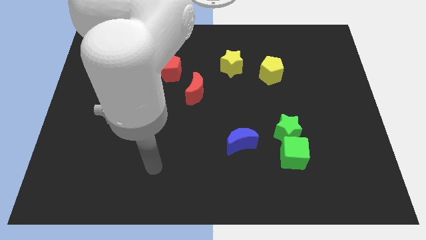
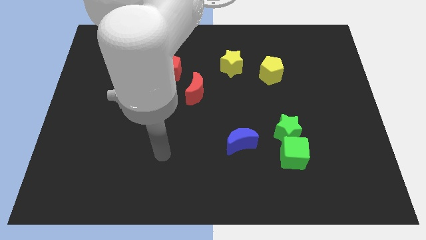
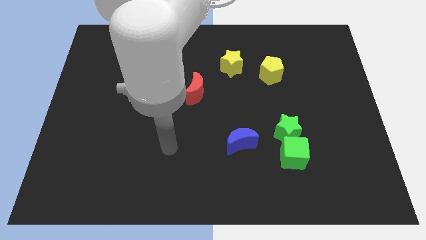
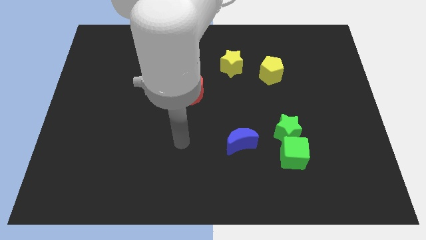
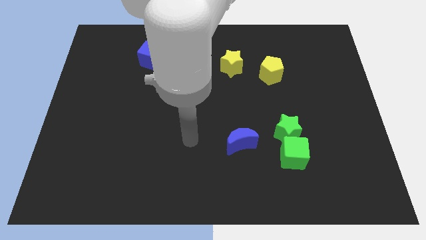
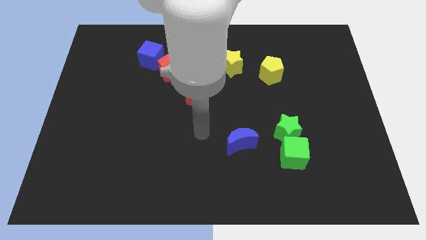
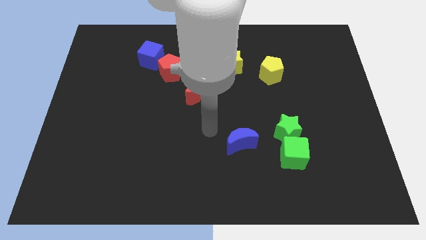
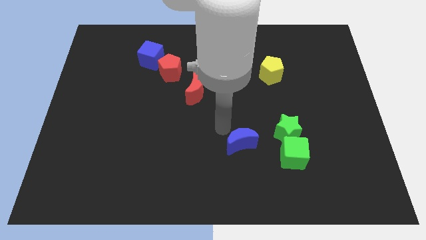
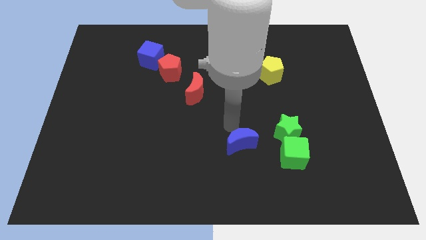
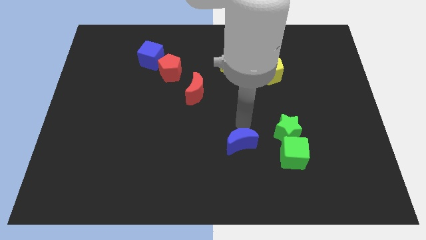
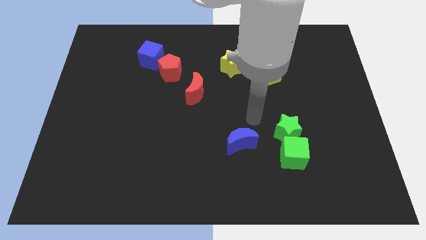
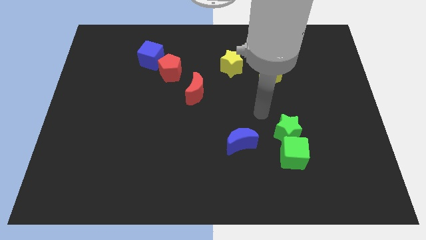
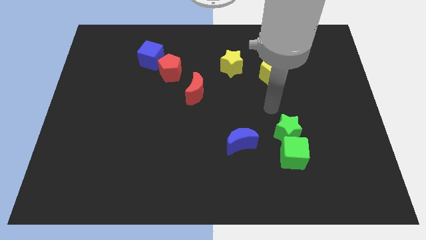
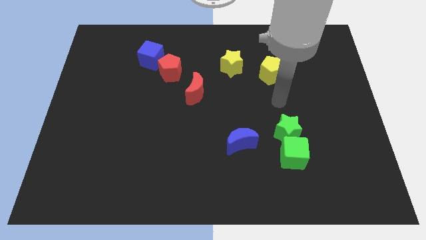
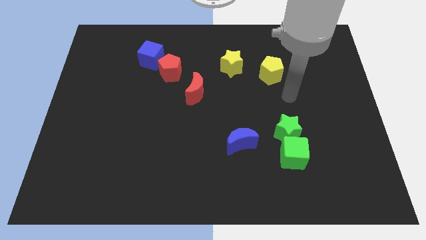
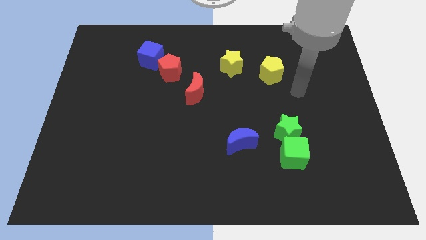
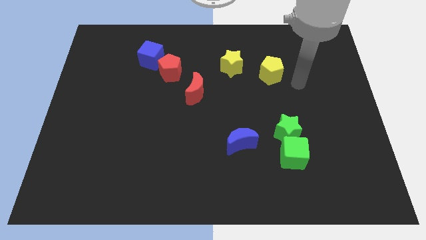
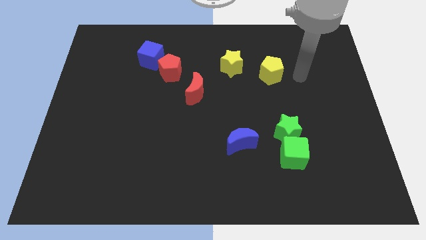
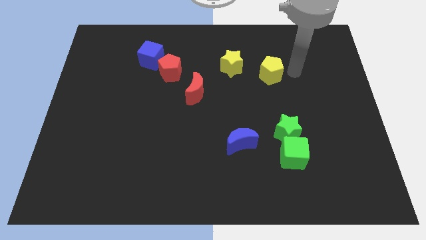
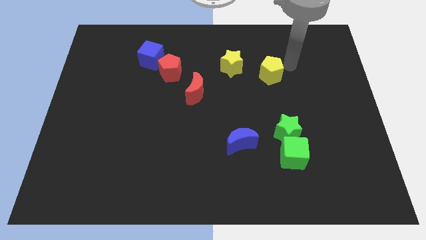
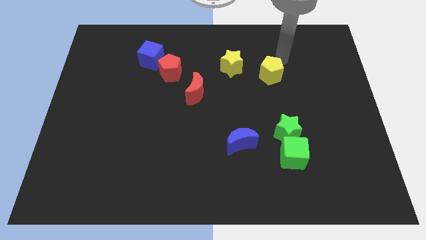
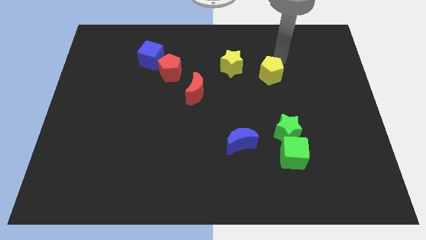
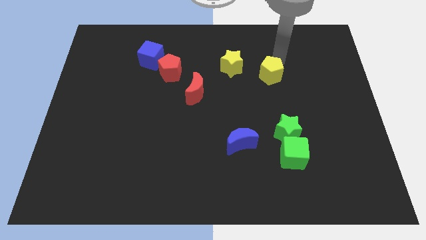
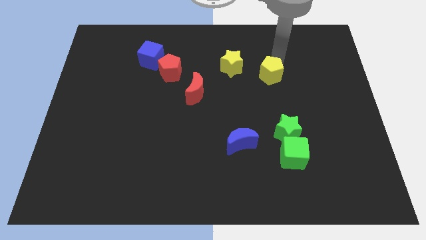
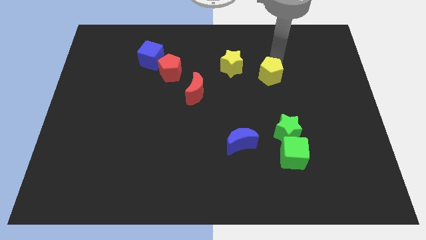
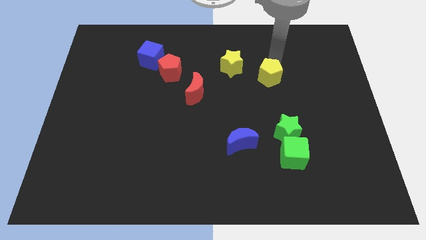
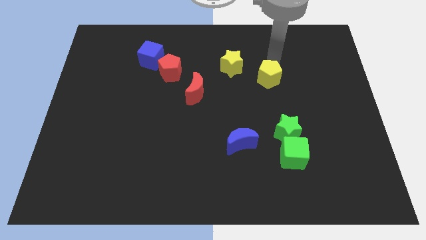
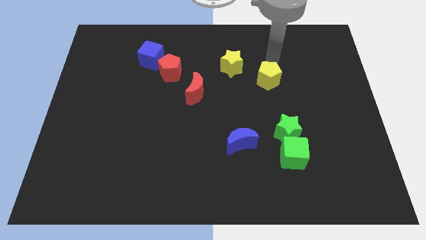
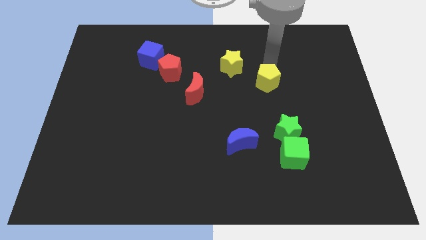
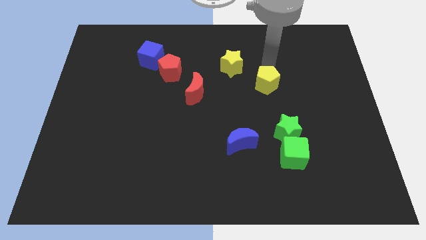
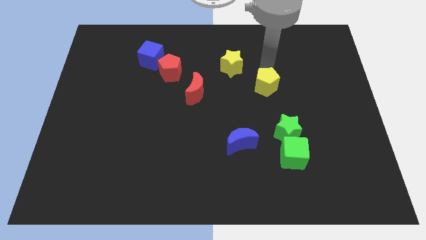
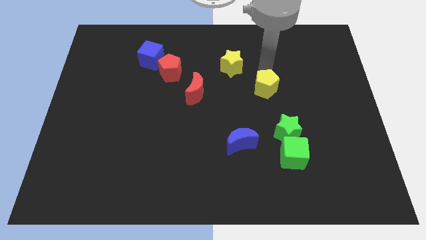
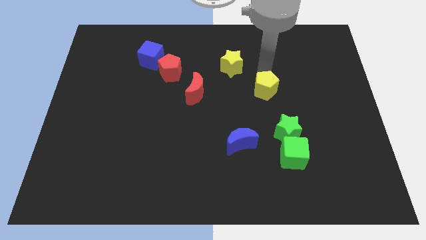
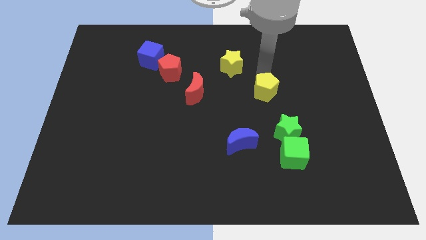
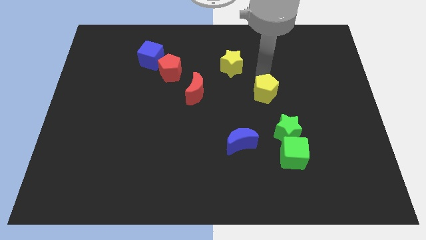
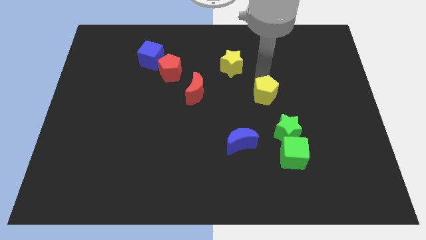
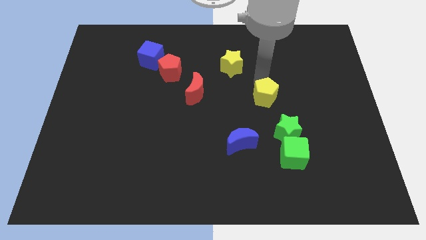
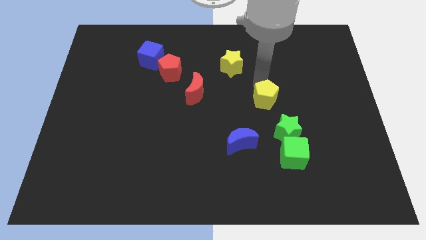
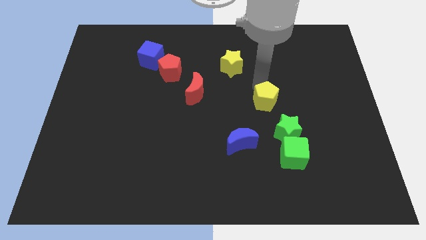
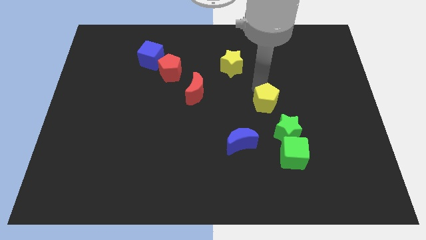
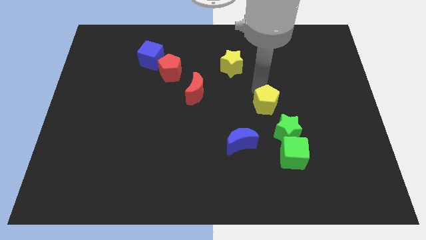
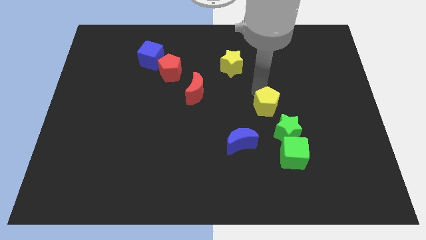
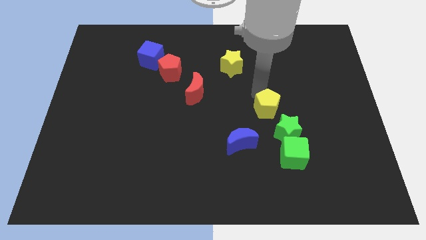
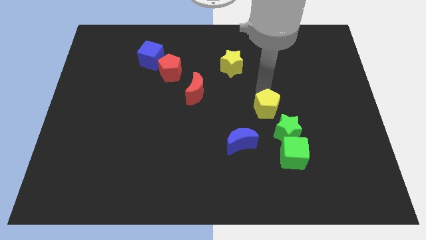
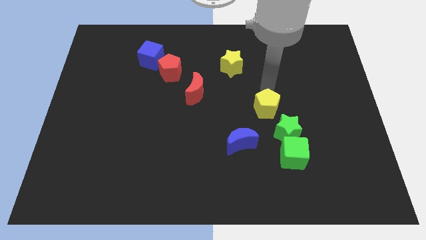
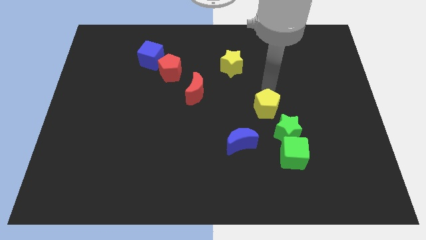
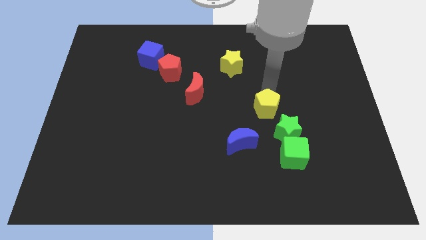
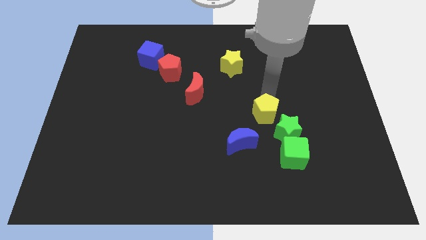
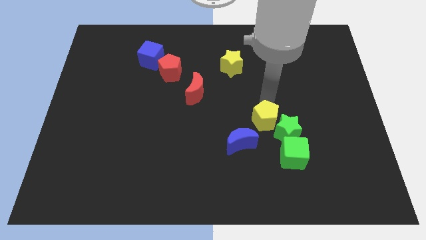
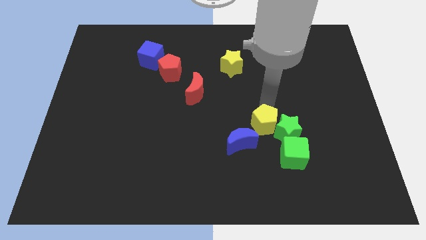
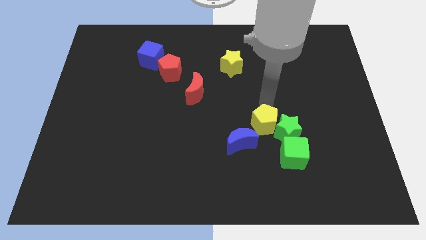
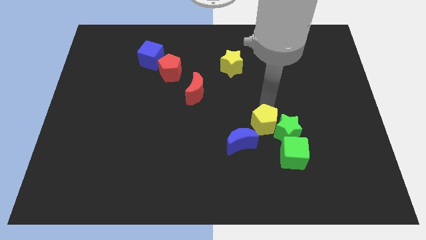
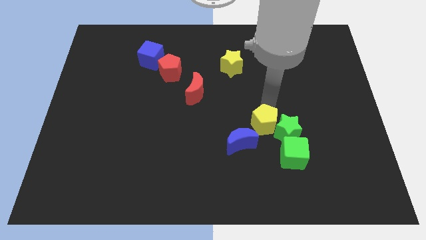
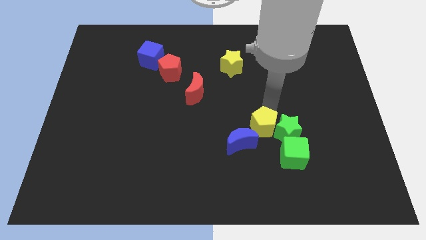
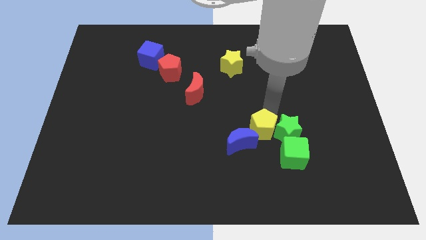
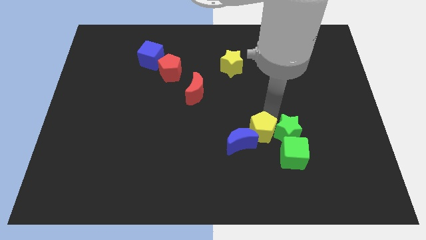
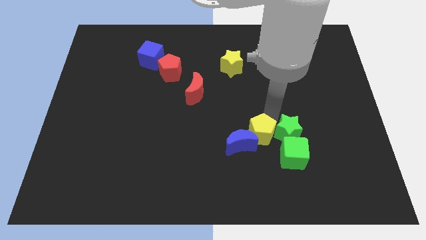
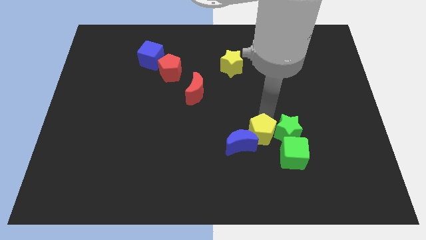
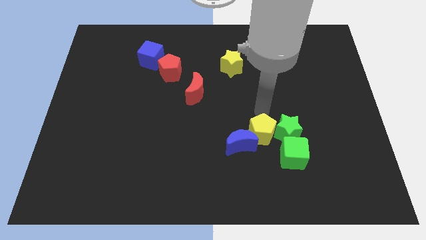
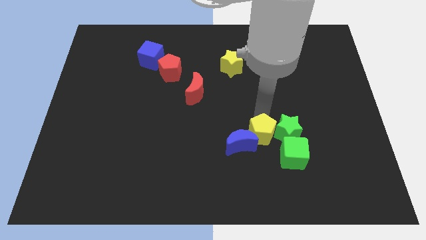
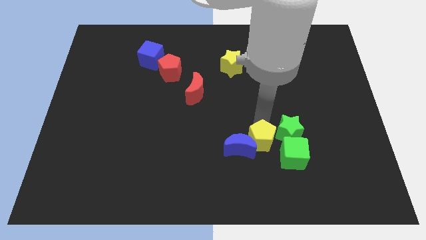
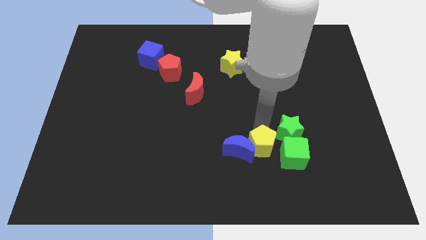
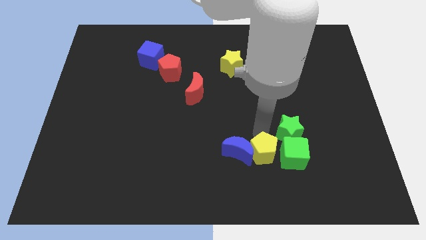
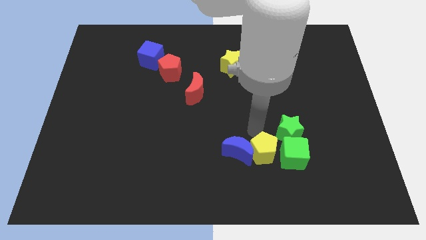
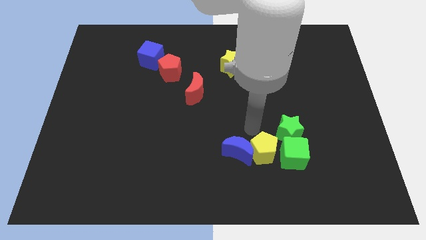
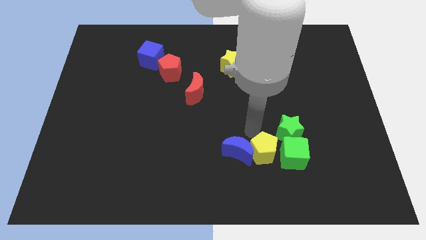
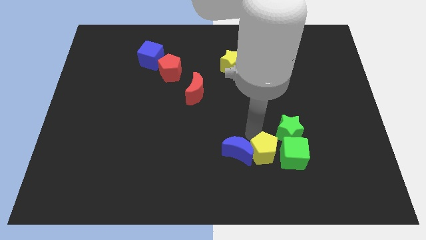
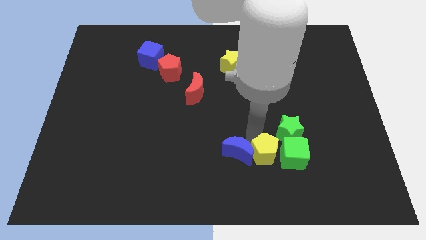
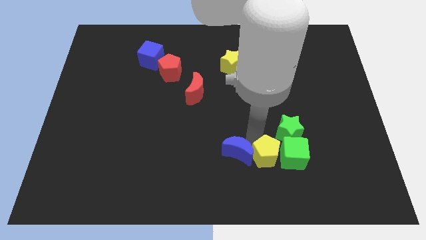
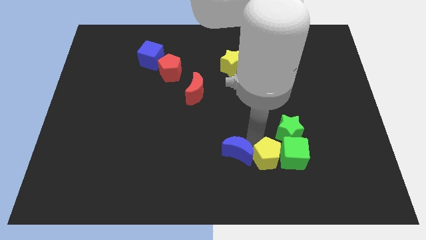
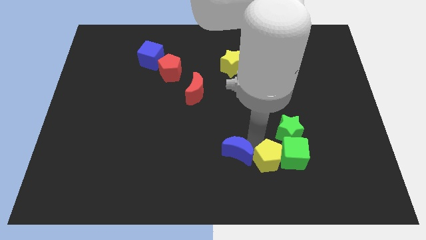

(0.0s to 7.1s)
move the yellow pentagon to the bottom side of the green star
